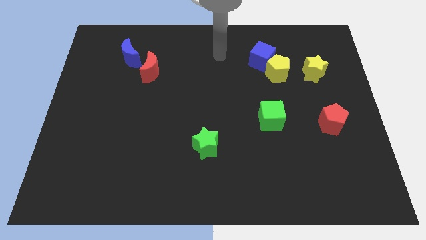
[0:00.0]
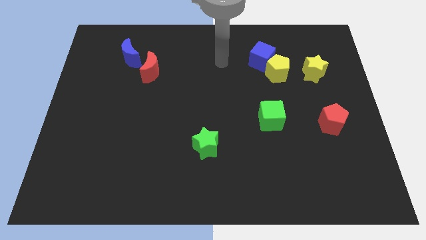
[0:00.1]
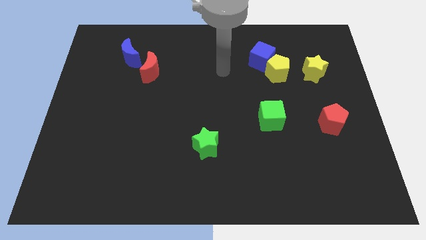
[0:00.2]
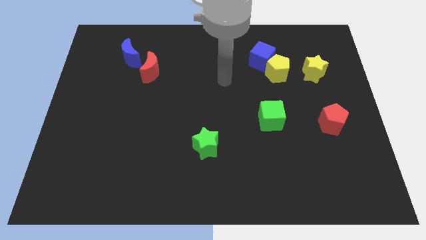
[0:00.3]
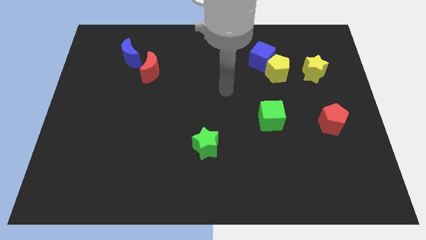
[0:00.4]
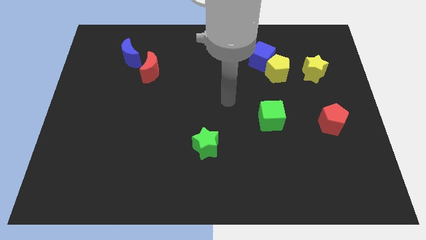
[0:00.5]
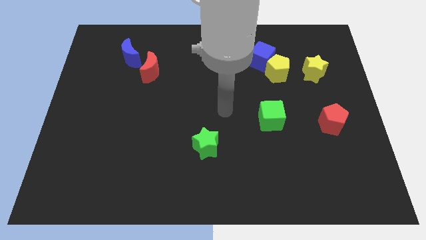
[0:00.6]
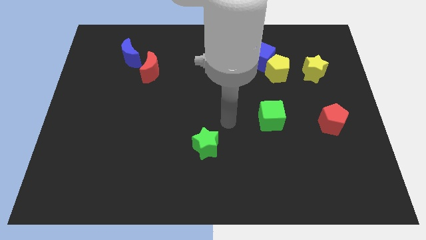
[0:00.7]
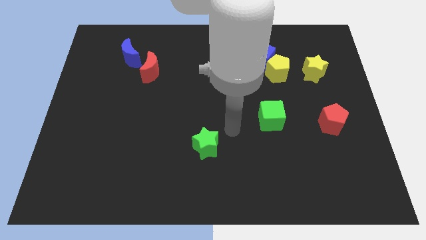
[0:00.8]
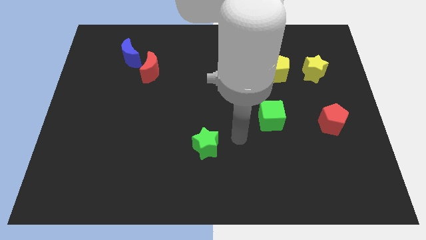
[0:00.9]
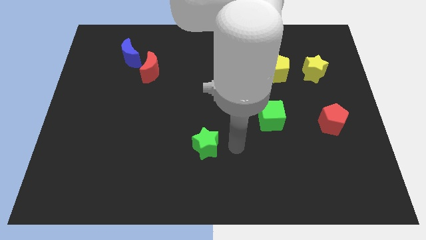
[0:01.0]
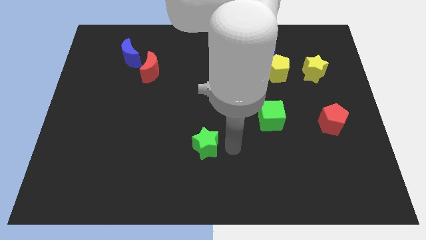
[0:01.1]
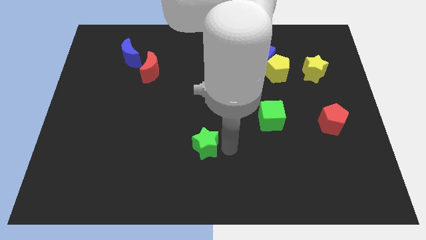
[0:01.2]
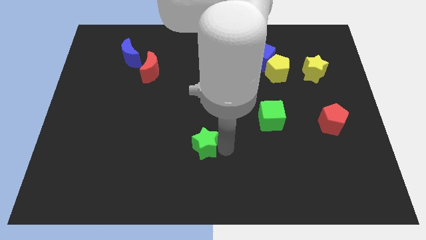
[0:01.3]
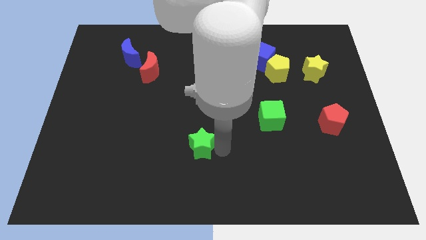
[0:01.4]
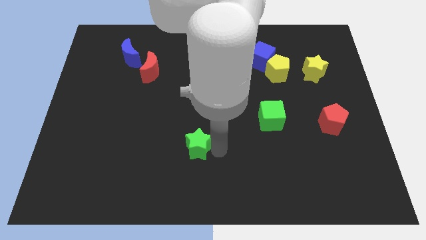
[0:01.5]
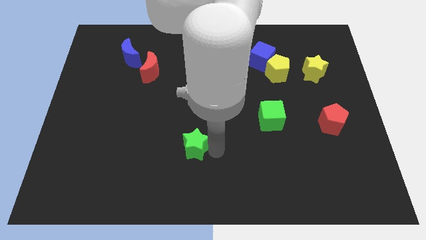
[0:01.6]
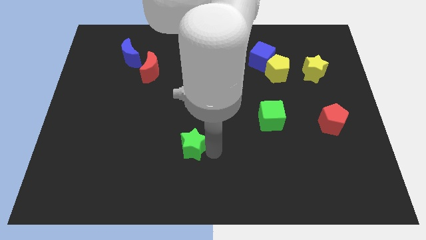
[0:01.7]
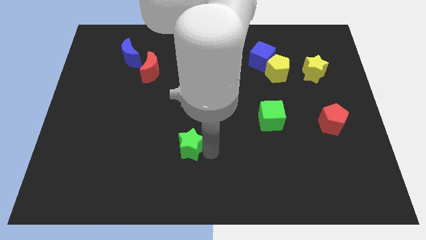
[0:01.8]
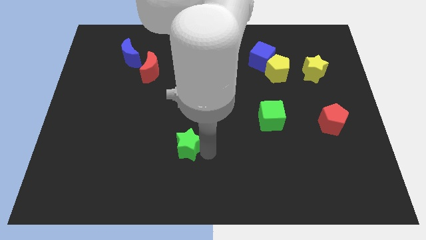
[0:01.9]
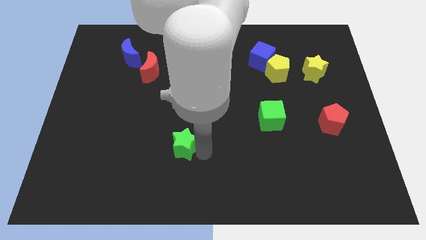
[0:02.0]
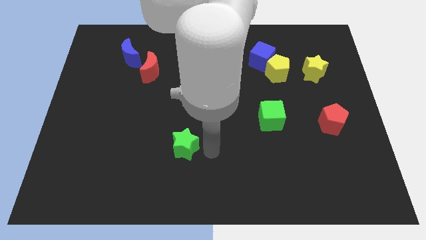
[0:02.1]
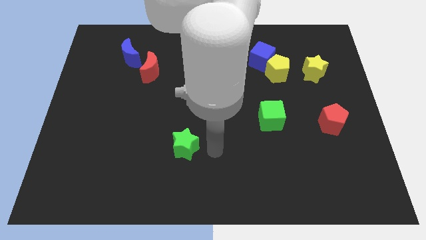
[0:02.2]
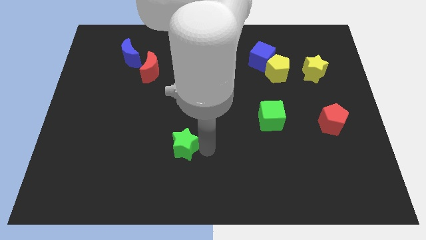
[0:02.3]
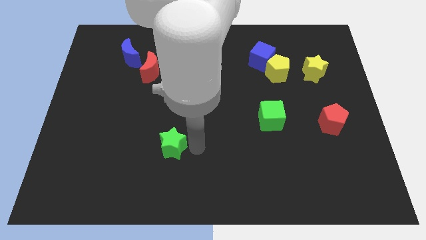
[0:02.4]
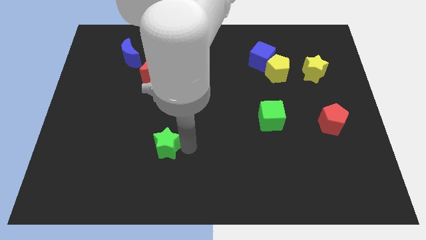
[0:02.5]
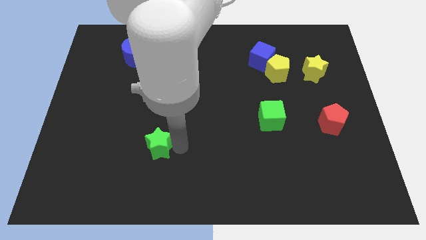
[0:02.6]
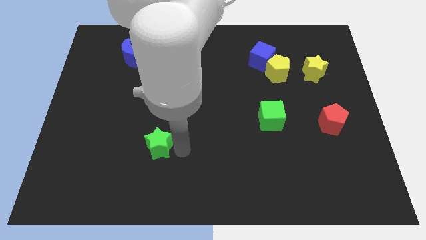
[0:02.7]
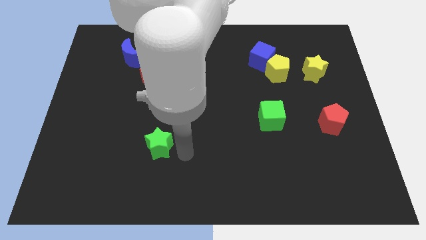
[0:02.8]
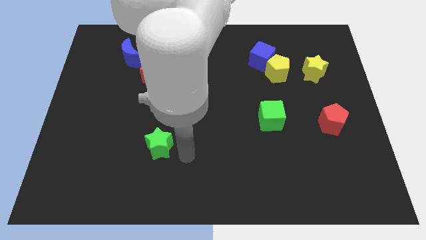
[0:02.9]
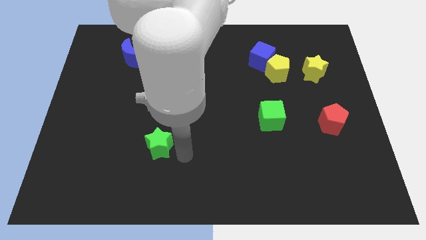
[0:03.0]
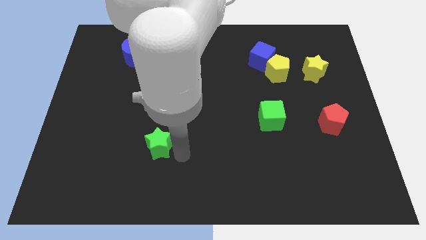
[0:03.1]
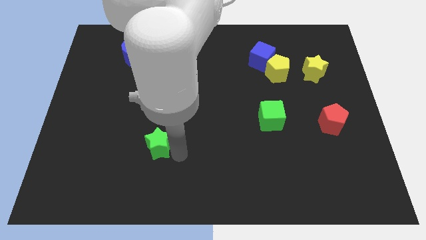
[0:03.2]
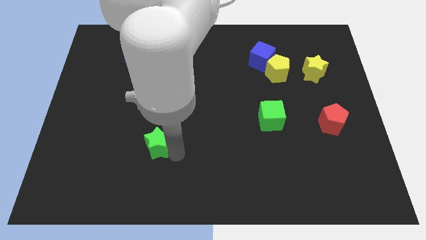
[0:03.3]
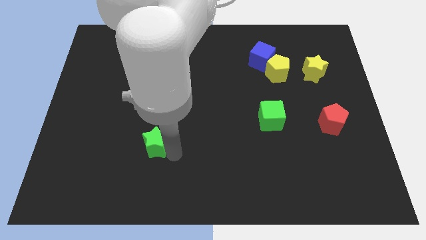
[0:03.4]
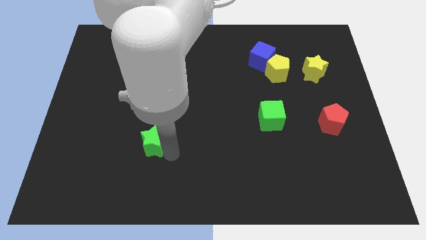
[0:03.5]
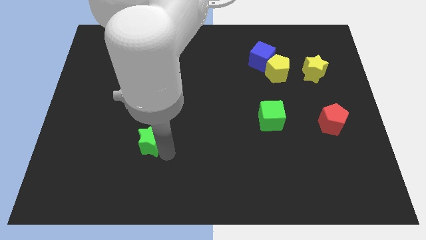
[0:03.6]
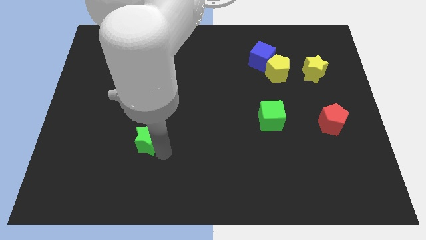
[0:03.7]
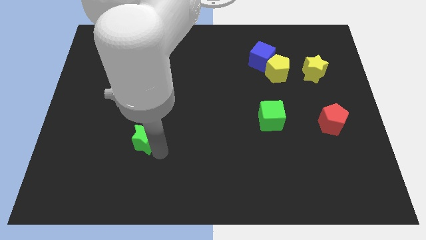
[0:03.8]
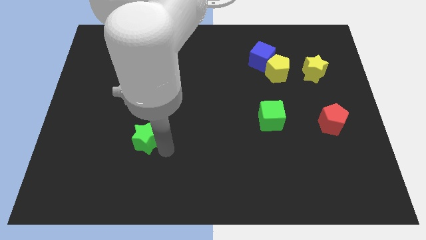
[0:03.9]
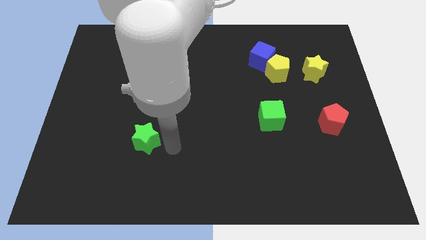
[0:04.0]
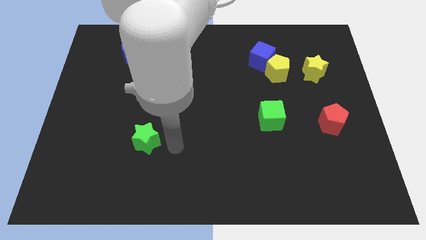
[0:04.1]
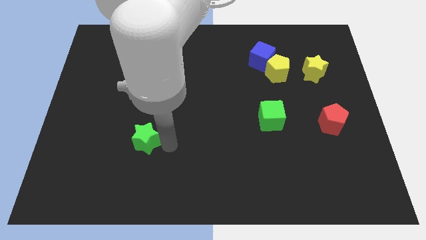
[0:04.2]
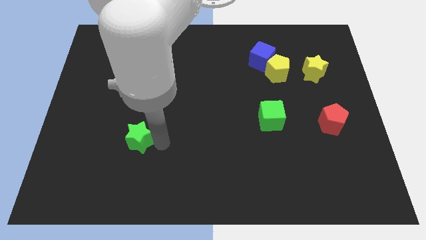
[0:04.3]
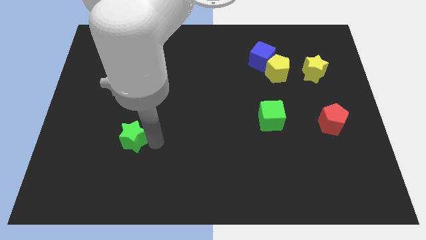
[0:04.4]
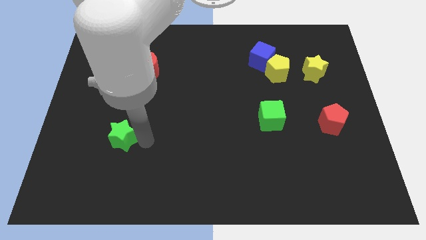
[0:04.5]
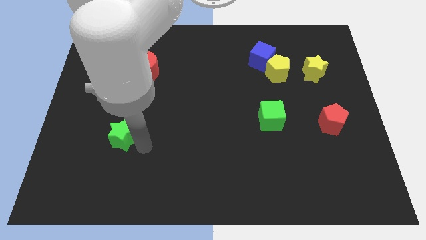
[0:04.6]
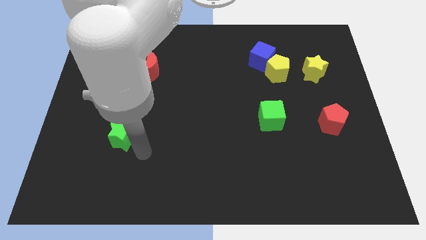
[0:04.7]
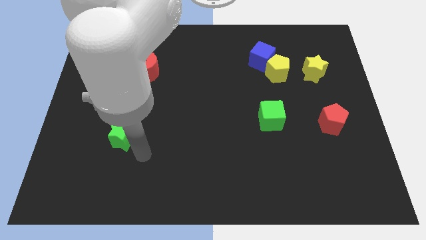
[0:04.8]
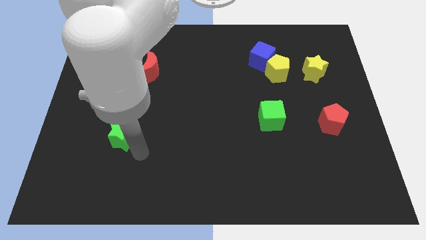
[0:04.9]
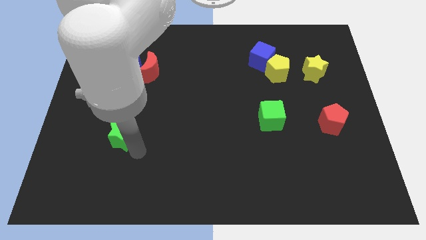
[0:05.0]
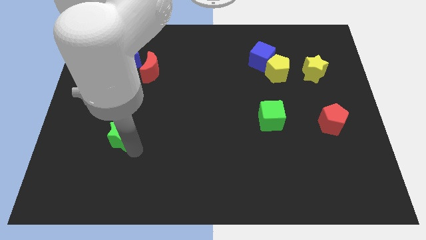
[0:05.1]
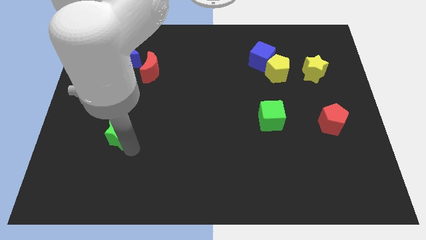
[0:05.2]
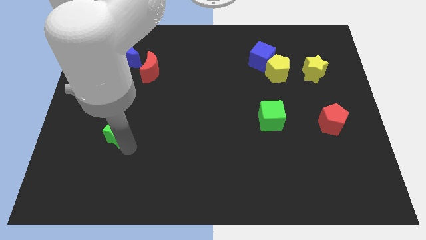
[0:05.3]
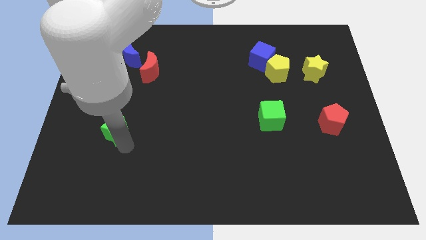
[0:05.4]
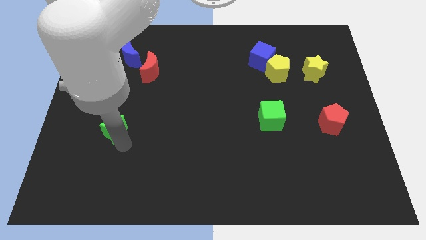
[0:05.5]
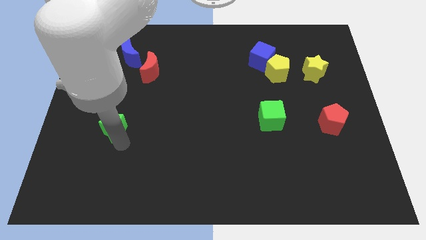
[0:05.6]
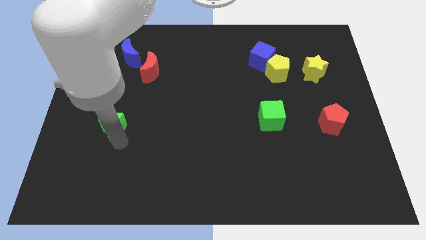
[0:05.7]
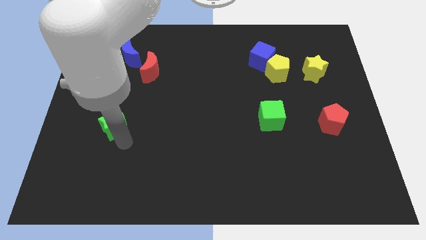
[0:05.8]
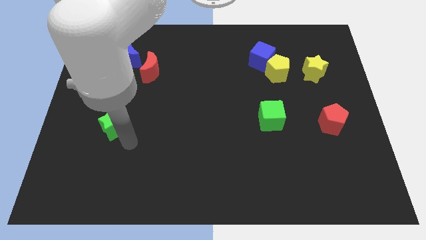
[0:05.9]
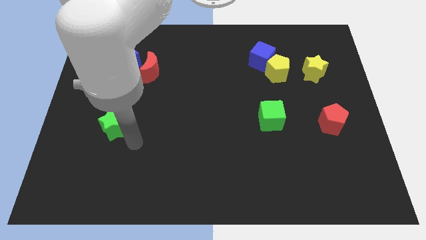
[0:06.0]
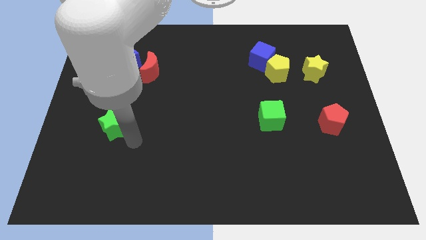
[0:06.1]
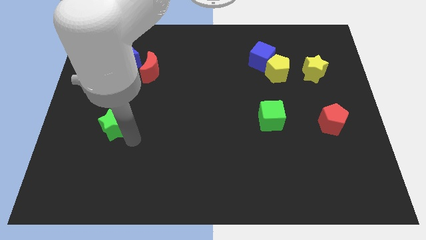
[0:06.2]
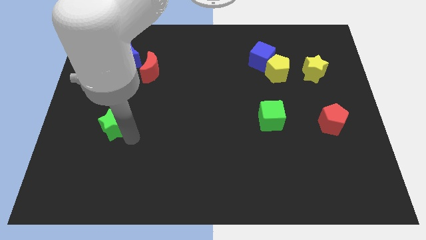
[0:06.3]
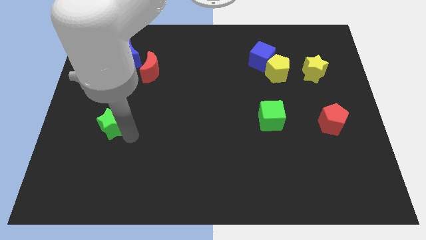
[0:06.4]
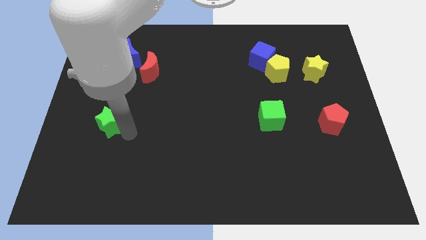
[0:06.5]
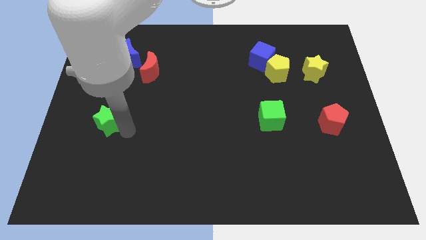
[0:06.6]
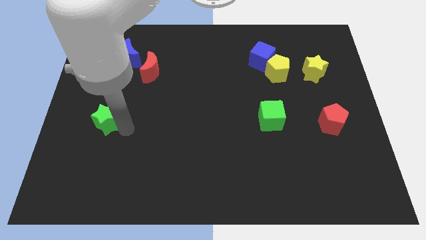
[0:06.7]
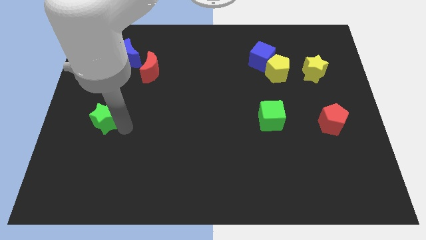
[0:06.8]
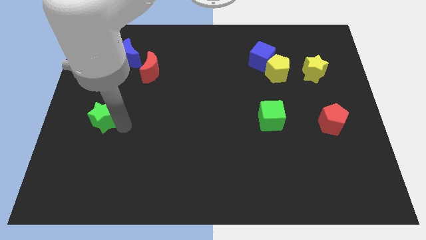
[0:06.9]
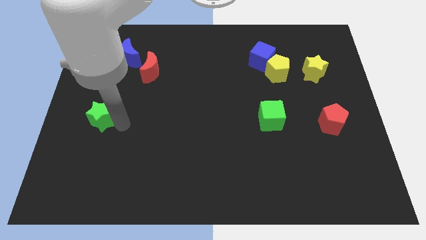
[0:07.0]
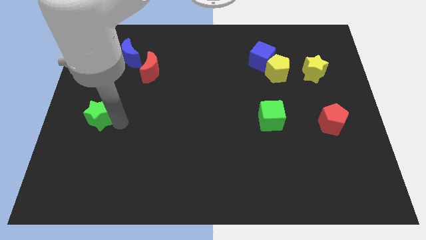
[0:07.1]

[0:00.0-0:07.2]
move the green star to the center left
